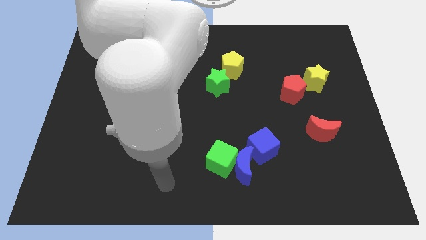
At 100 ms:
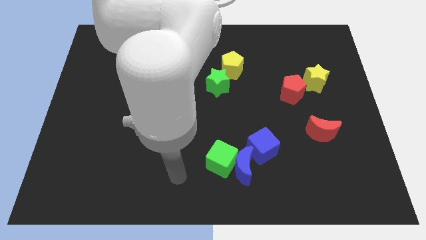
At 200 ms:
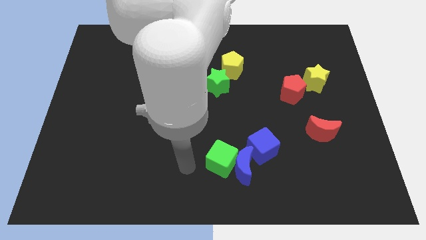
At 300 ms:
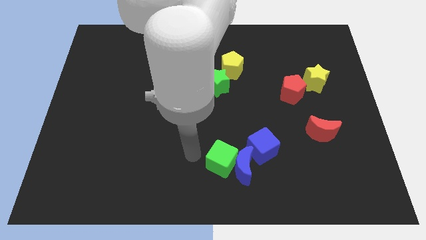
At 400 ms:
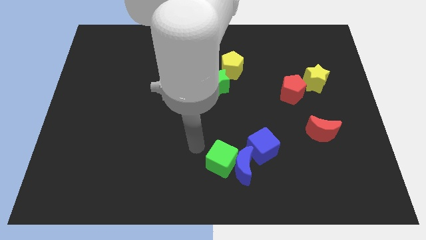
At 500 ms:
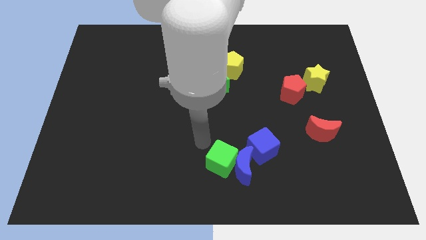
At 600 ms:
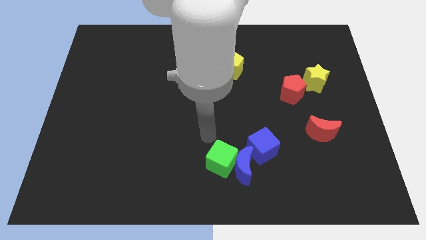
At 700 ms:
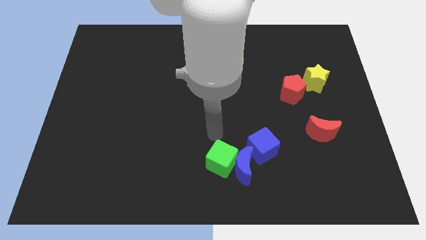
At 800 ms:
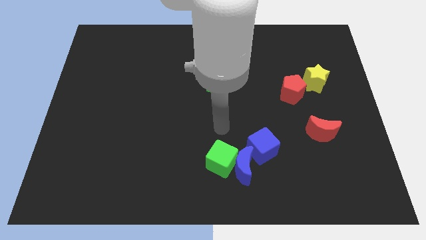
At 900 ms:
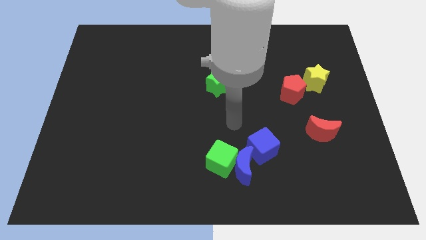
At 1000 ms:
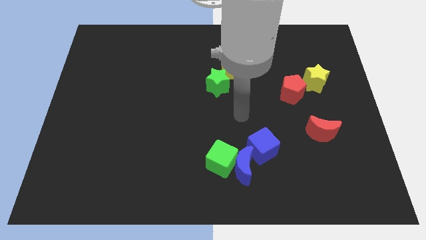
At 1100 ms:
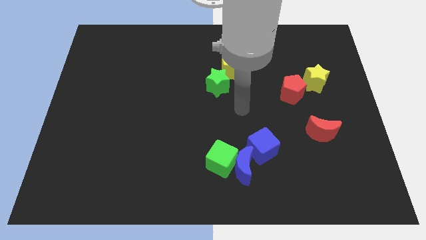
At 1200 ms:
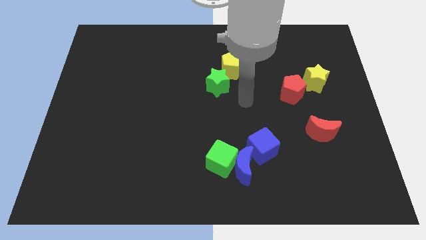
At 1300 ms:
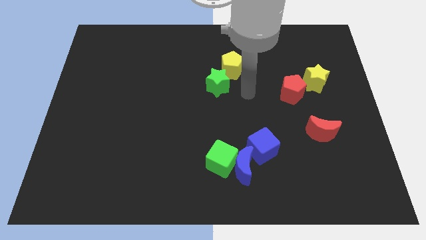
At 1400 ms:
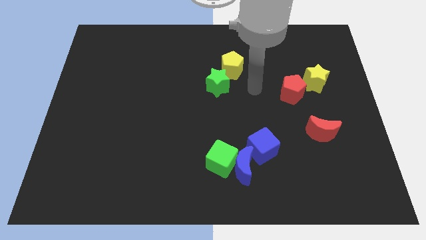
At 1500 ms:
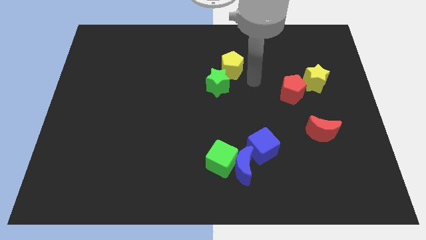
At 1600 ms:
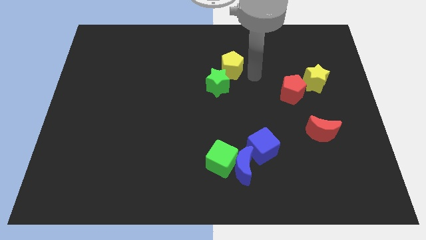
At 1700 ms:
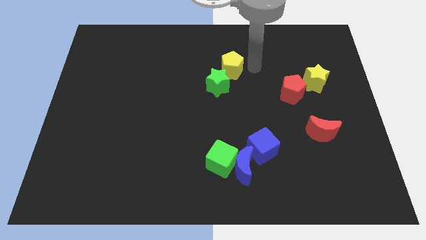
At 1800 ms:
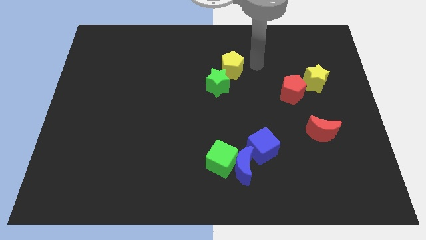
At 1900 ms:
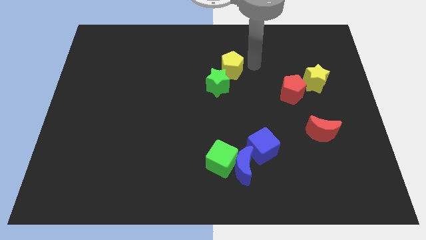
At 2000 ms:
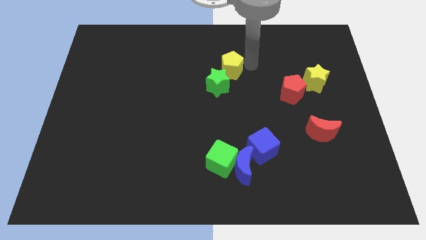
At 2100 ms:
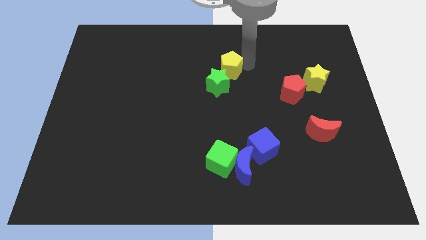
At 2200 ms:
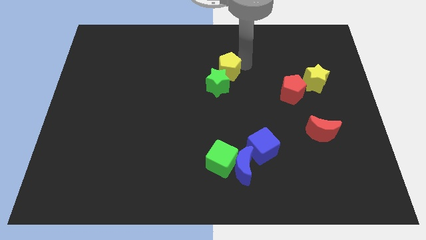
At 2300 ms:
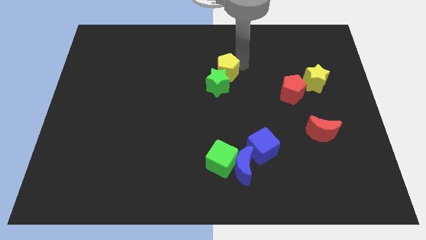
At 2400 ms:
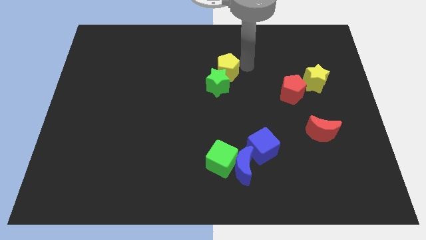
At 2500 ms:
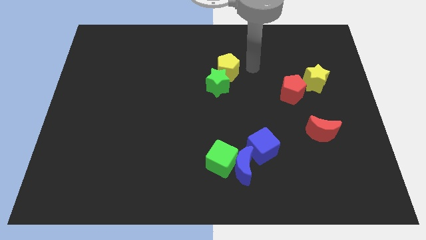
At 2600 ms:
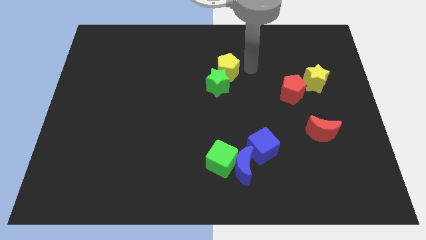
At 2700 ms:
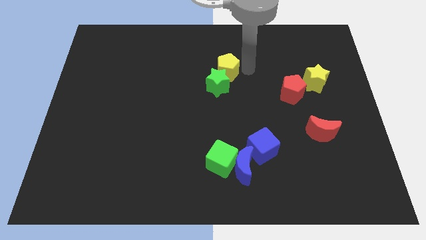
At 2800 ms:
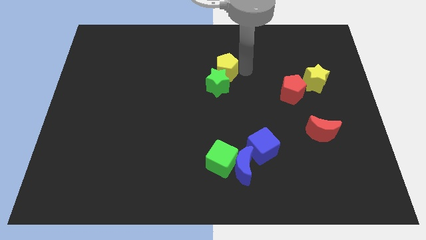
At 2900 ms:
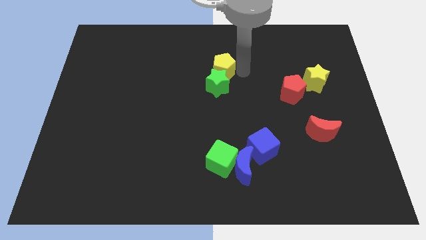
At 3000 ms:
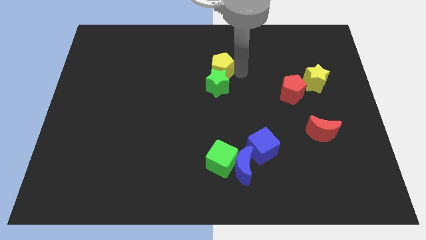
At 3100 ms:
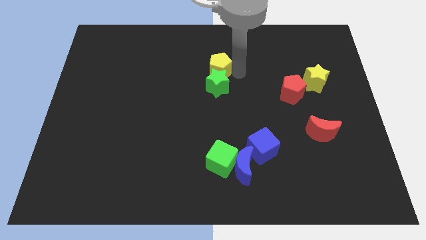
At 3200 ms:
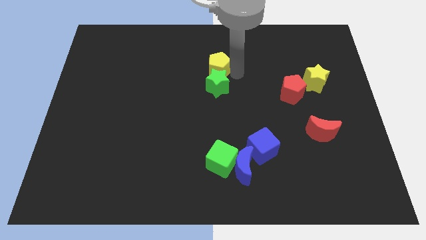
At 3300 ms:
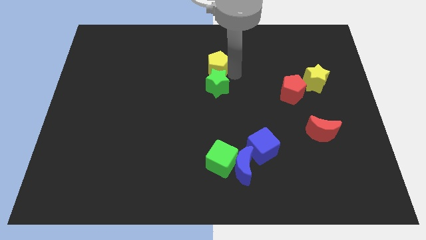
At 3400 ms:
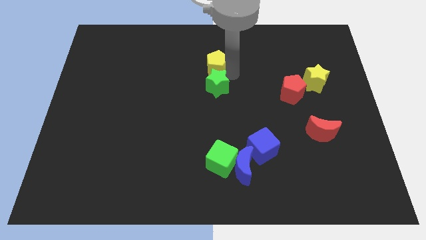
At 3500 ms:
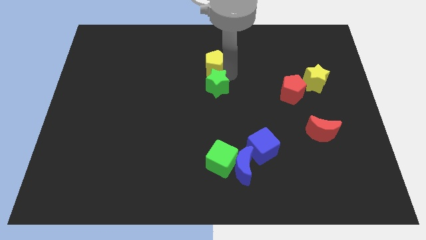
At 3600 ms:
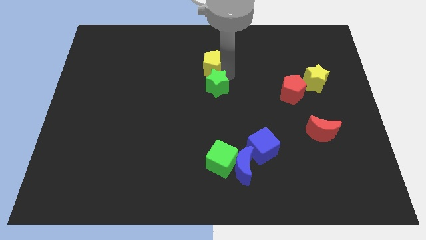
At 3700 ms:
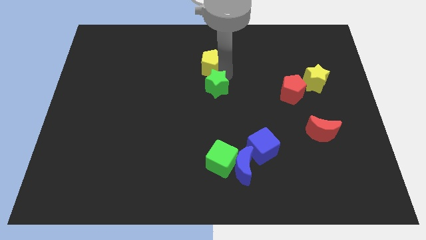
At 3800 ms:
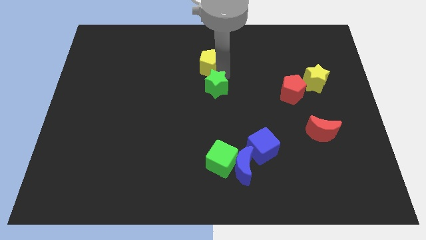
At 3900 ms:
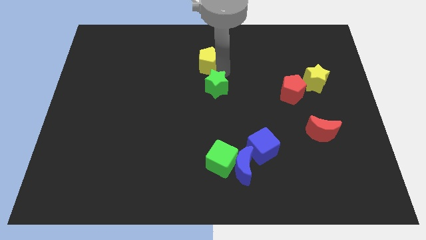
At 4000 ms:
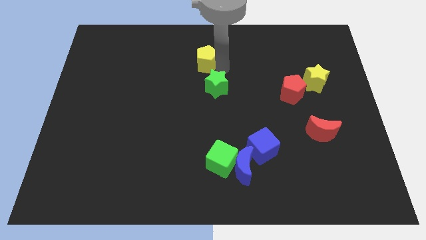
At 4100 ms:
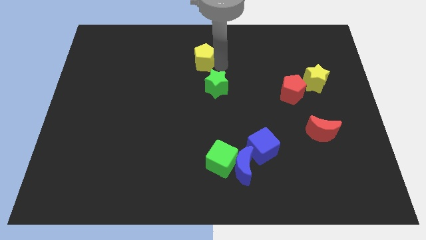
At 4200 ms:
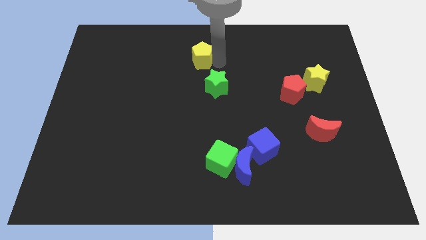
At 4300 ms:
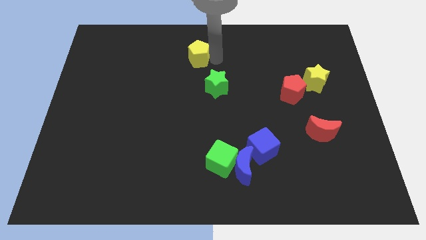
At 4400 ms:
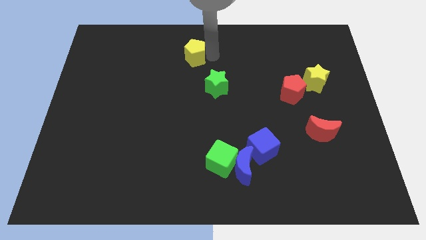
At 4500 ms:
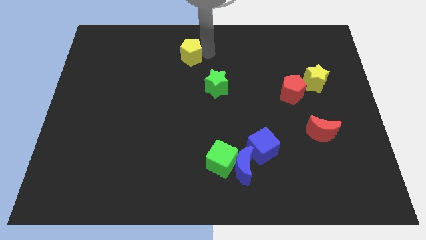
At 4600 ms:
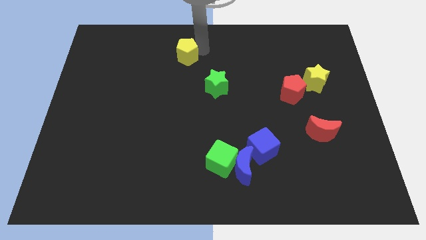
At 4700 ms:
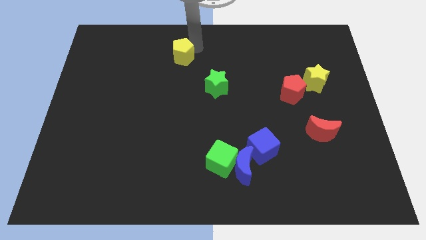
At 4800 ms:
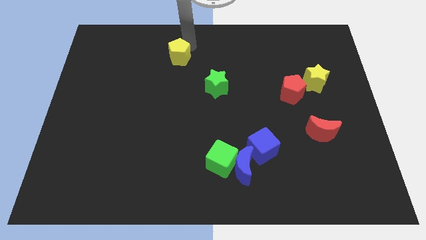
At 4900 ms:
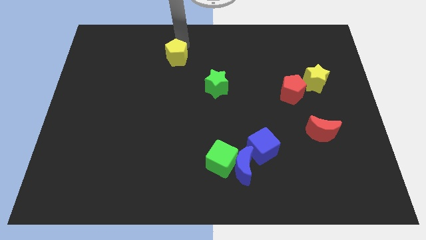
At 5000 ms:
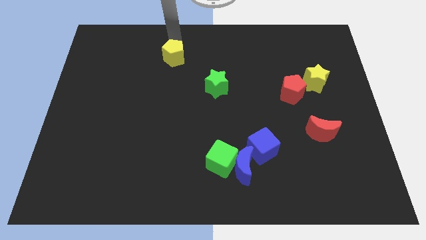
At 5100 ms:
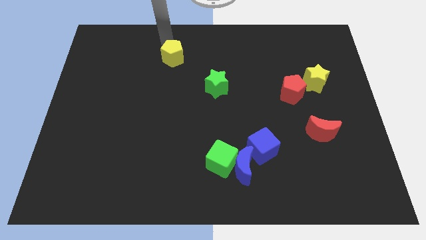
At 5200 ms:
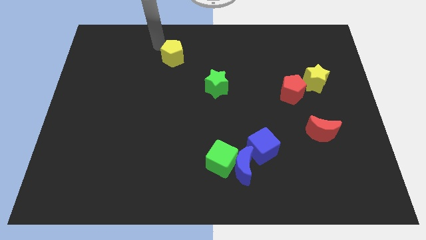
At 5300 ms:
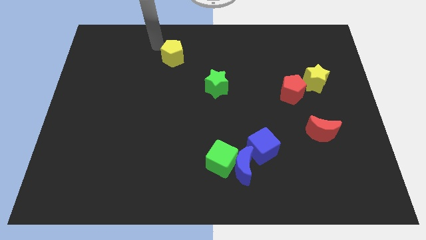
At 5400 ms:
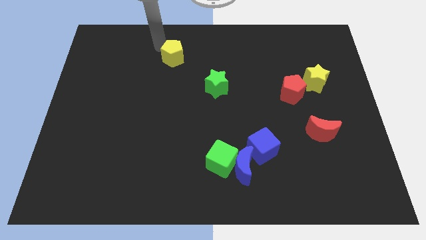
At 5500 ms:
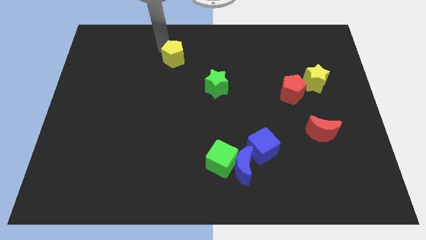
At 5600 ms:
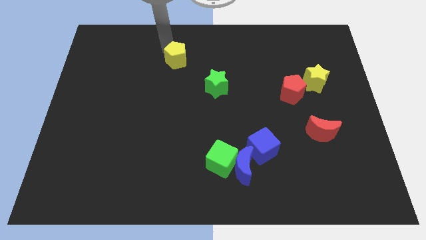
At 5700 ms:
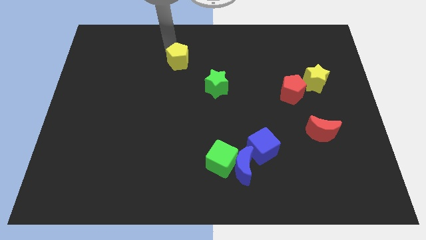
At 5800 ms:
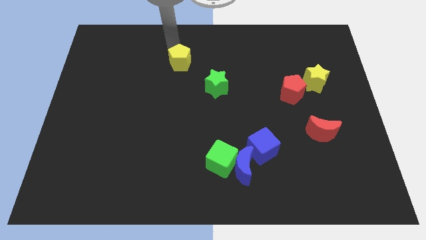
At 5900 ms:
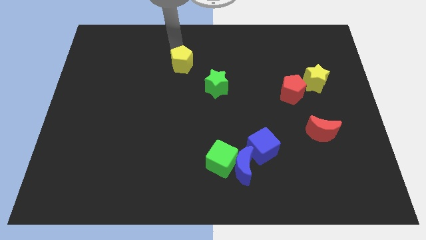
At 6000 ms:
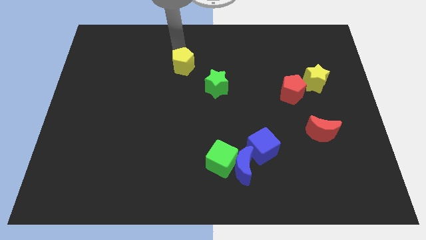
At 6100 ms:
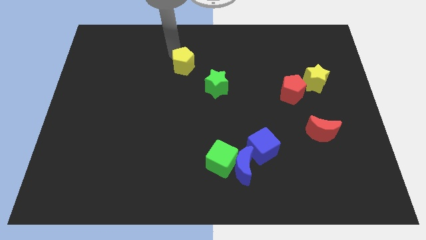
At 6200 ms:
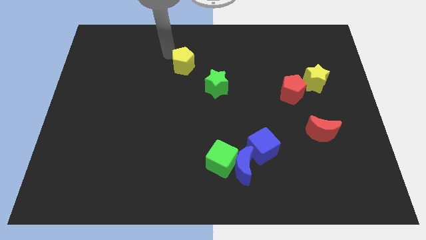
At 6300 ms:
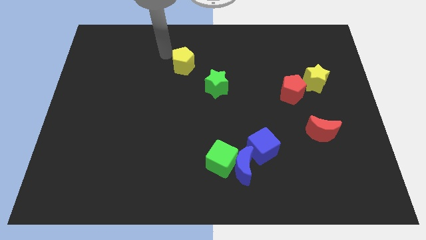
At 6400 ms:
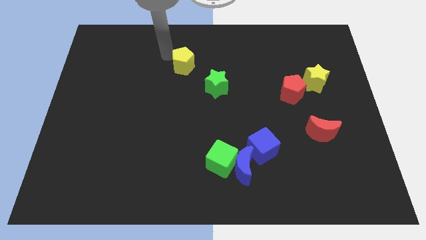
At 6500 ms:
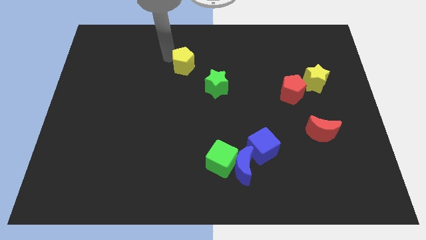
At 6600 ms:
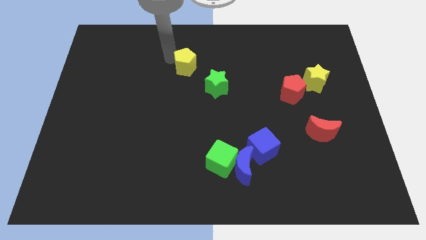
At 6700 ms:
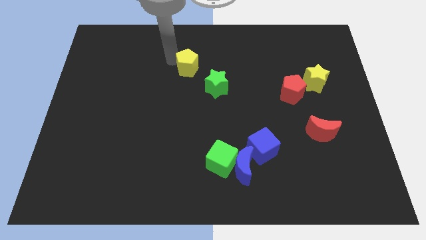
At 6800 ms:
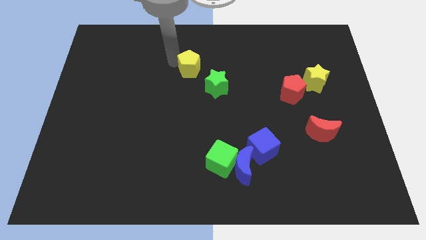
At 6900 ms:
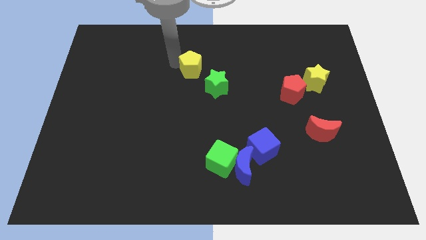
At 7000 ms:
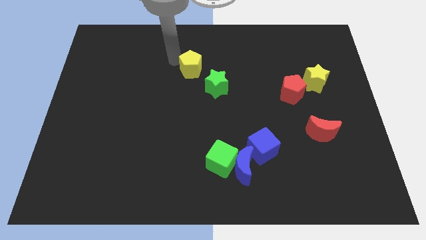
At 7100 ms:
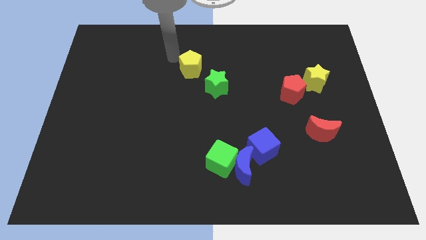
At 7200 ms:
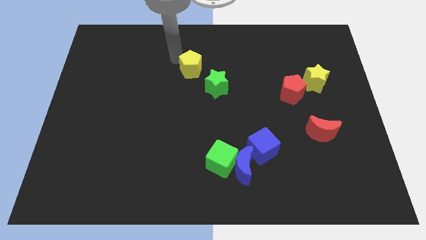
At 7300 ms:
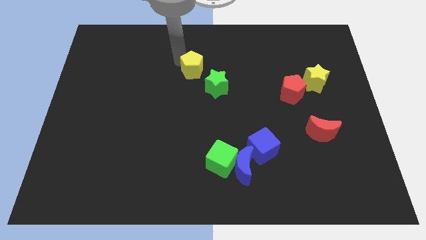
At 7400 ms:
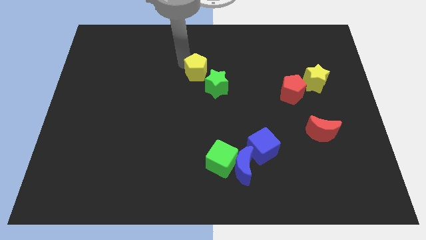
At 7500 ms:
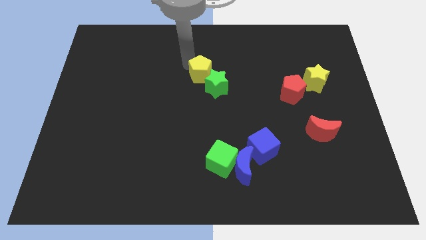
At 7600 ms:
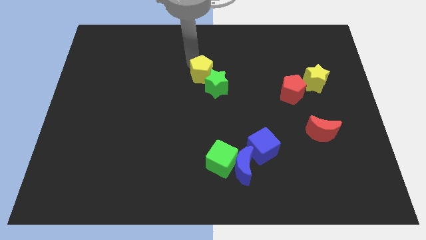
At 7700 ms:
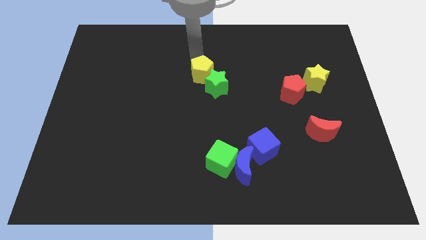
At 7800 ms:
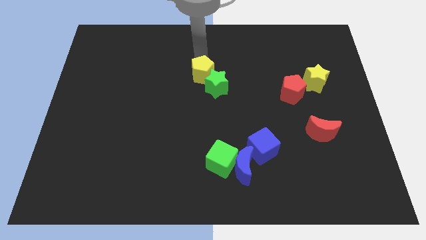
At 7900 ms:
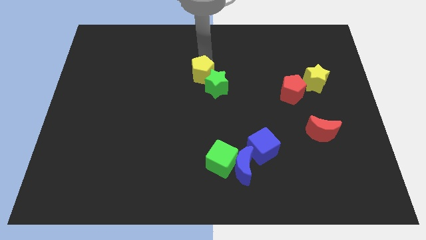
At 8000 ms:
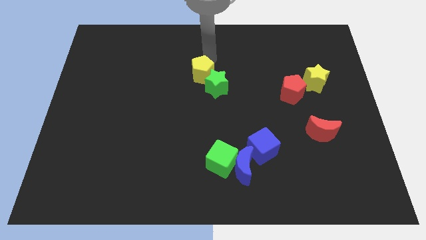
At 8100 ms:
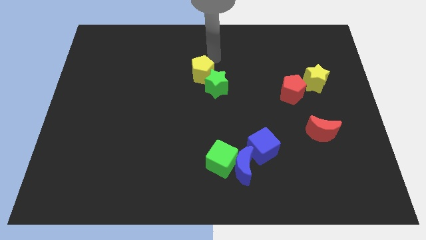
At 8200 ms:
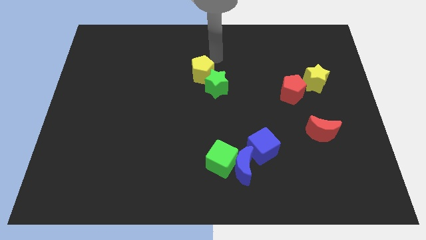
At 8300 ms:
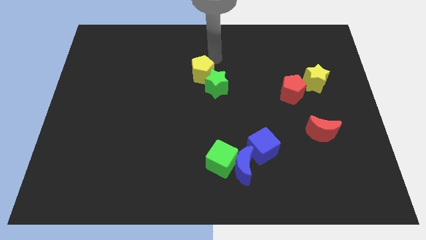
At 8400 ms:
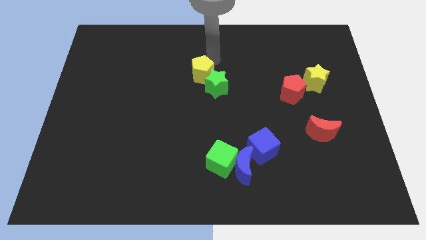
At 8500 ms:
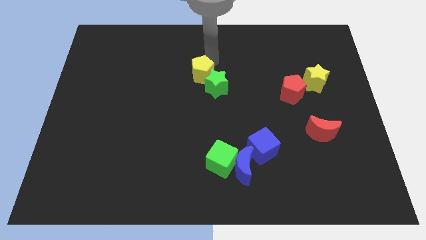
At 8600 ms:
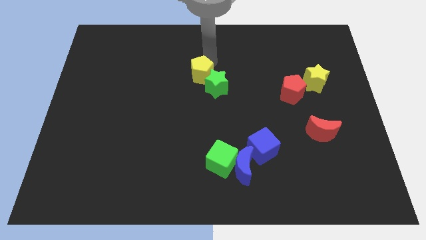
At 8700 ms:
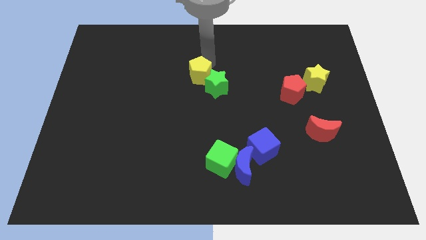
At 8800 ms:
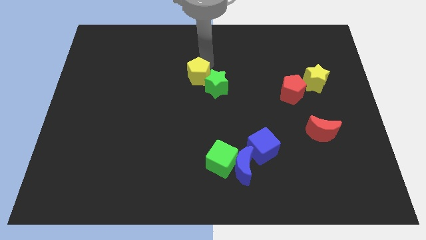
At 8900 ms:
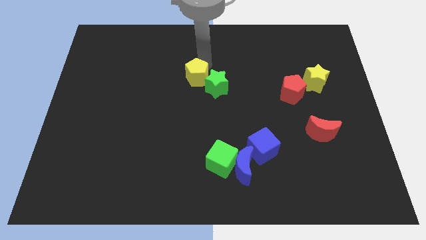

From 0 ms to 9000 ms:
slide the yellow pentagon a little bit downwards and left
